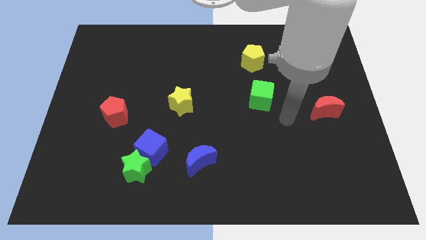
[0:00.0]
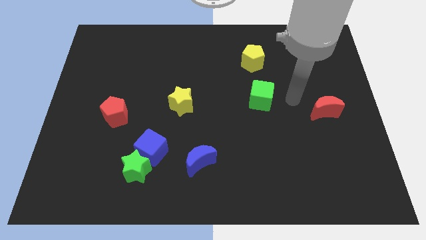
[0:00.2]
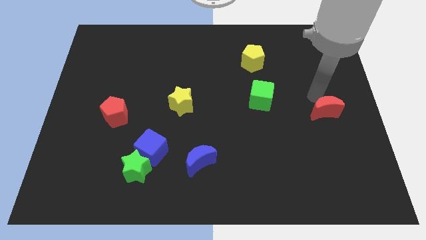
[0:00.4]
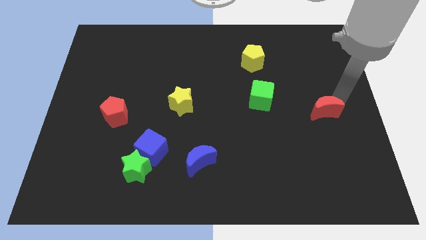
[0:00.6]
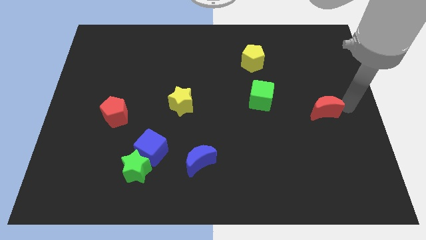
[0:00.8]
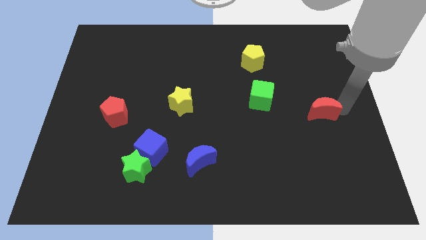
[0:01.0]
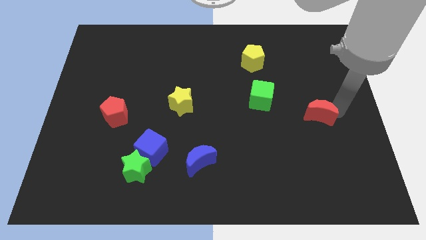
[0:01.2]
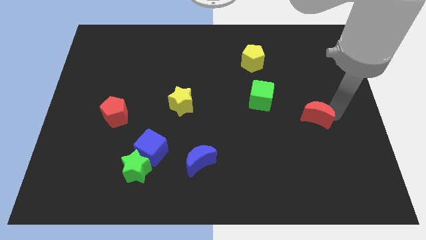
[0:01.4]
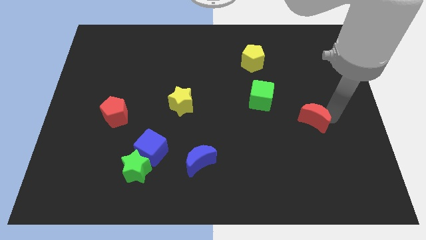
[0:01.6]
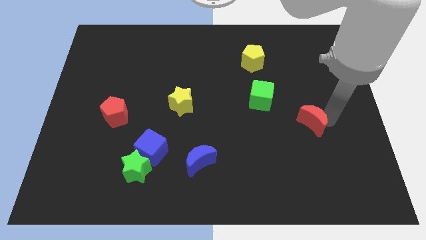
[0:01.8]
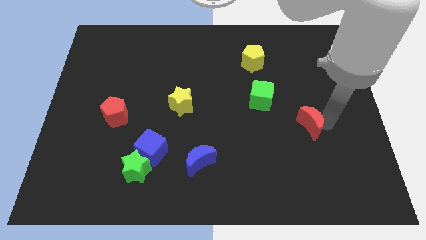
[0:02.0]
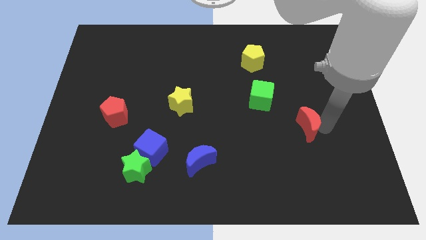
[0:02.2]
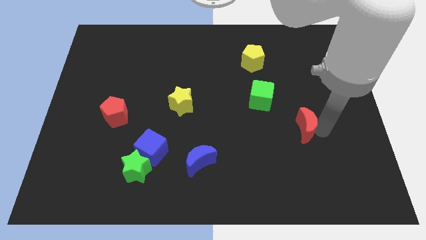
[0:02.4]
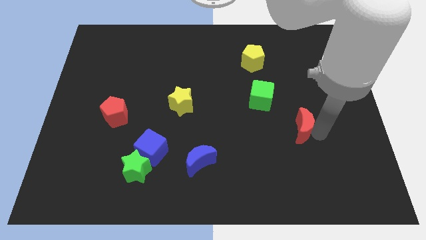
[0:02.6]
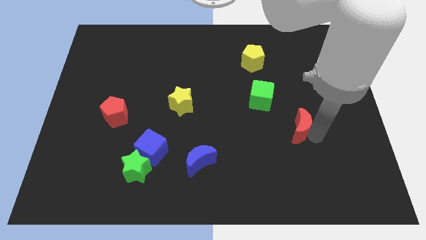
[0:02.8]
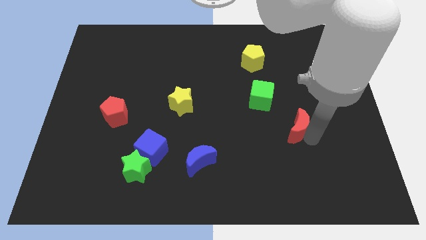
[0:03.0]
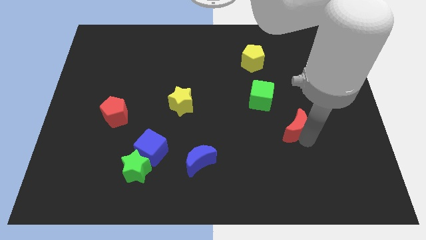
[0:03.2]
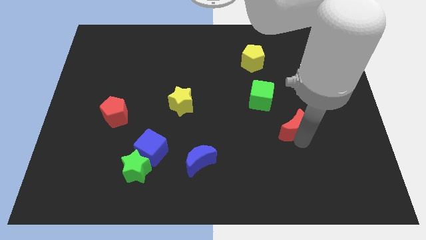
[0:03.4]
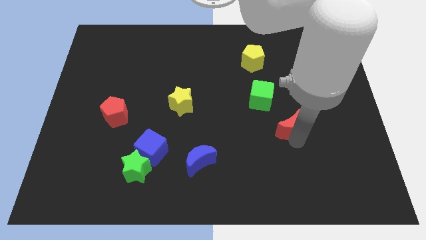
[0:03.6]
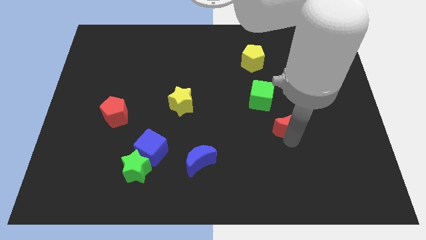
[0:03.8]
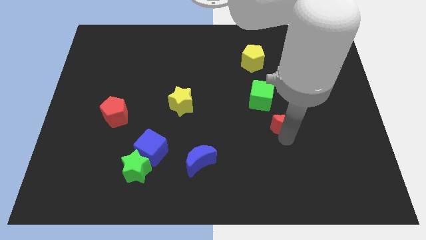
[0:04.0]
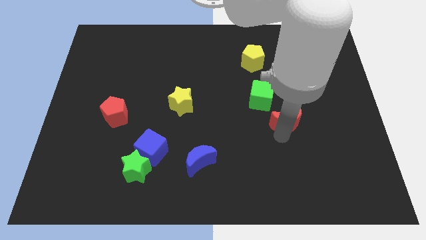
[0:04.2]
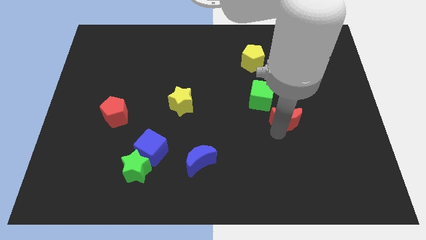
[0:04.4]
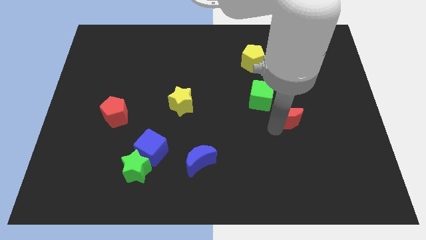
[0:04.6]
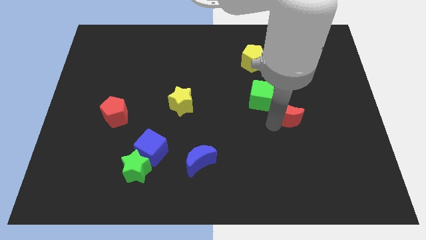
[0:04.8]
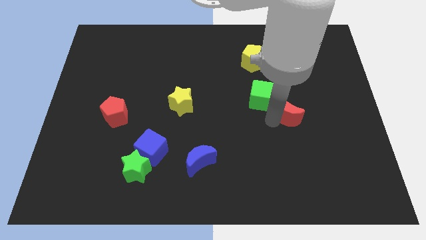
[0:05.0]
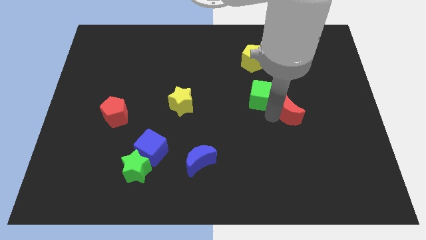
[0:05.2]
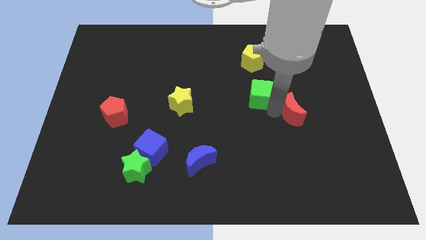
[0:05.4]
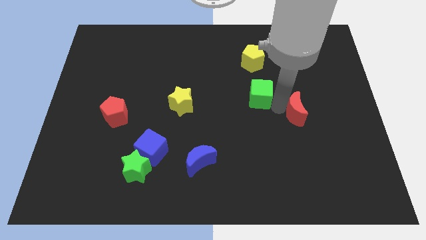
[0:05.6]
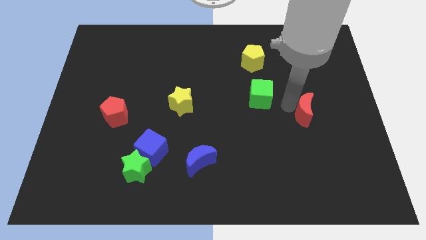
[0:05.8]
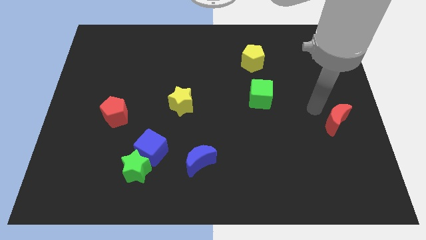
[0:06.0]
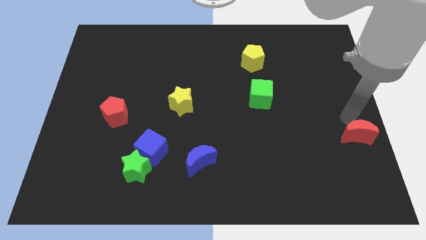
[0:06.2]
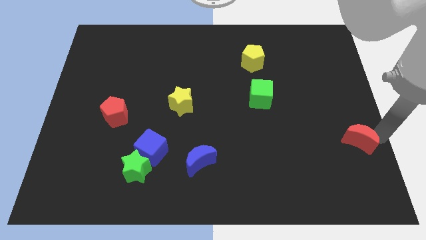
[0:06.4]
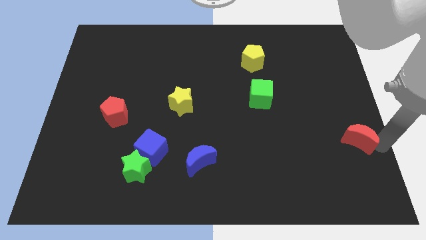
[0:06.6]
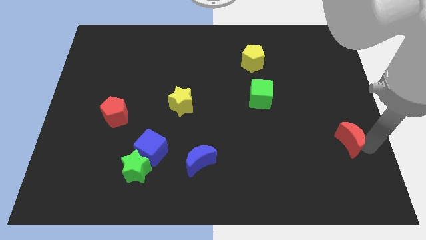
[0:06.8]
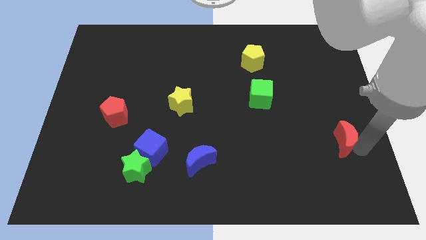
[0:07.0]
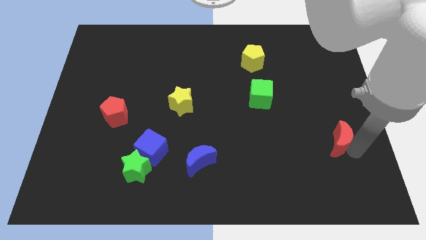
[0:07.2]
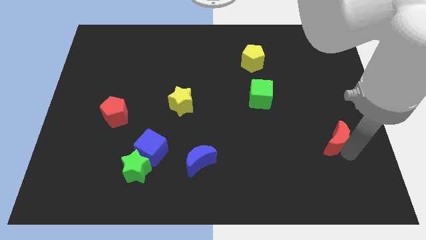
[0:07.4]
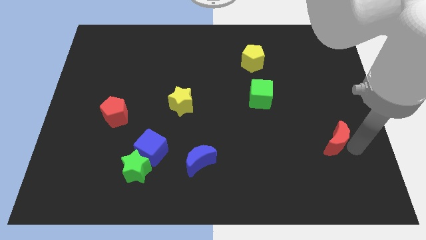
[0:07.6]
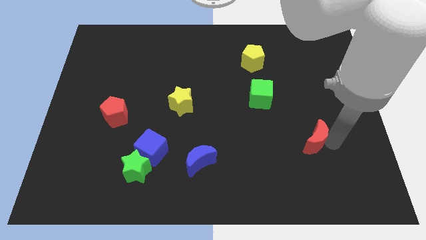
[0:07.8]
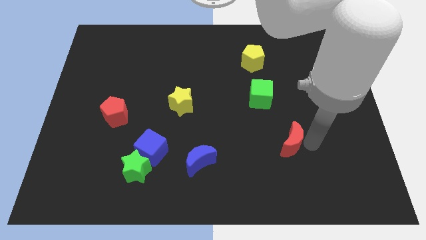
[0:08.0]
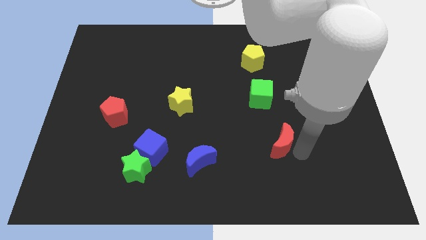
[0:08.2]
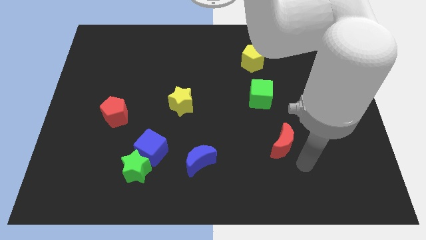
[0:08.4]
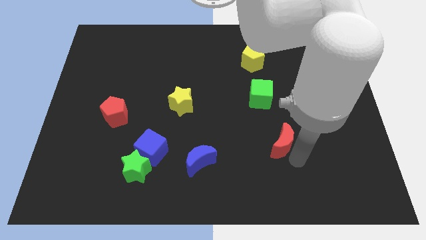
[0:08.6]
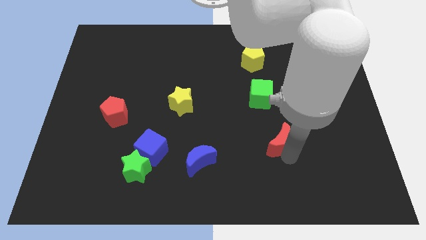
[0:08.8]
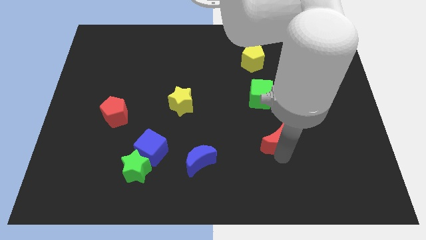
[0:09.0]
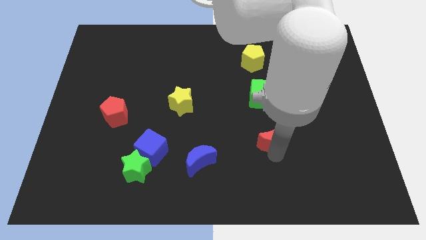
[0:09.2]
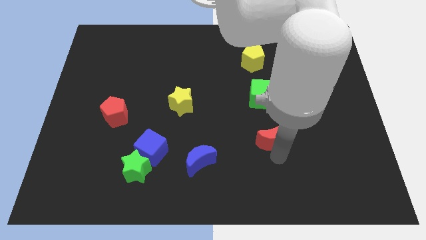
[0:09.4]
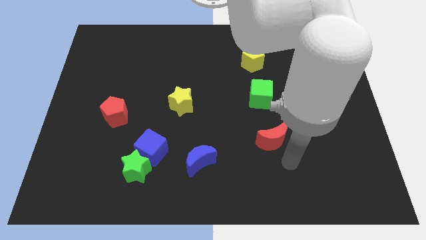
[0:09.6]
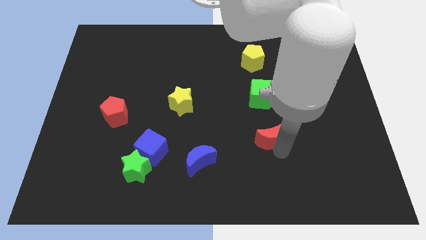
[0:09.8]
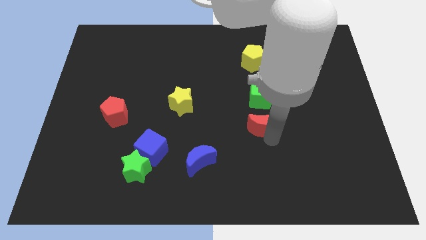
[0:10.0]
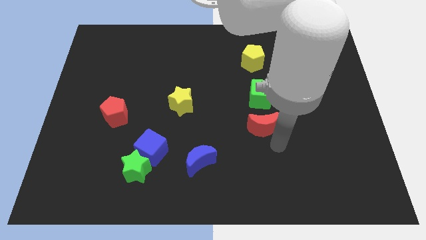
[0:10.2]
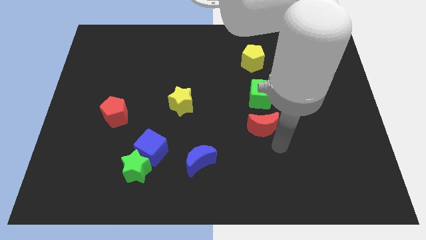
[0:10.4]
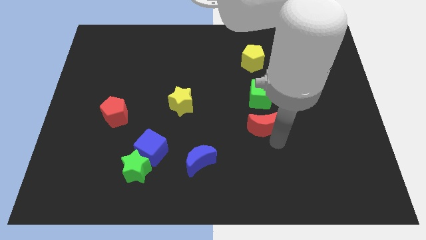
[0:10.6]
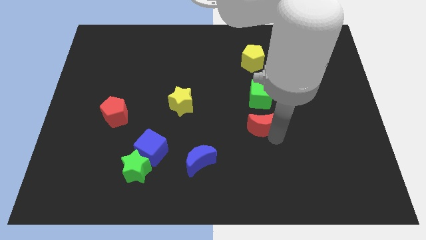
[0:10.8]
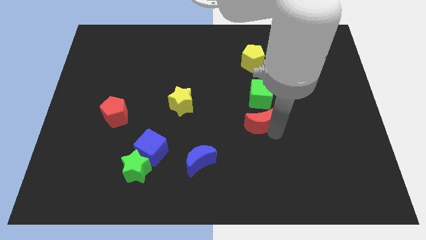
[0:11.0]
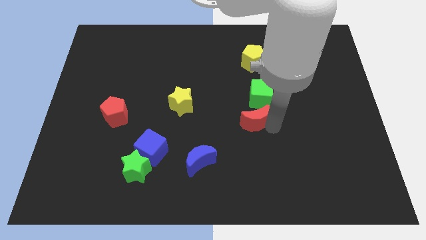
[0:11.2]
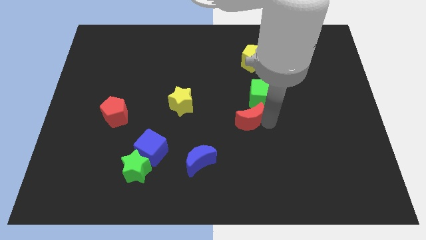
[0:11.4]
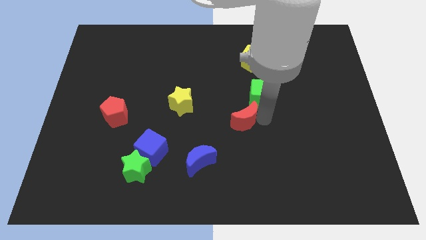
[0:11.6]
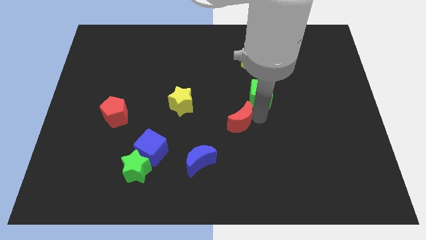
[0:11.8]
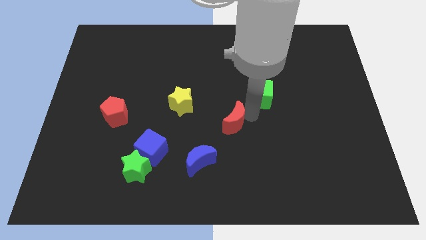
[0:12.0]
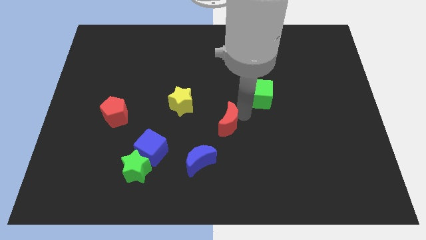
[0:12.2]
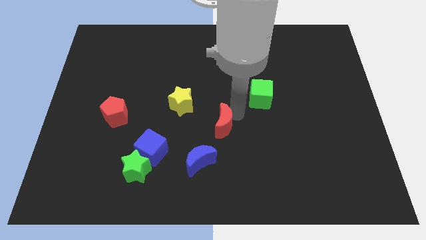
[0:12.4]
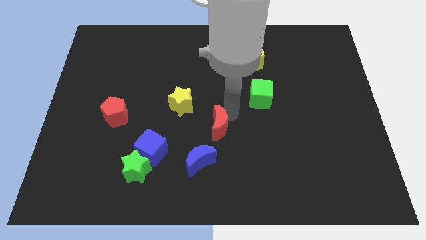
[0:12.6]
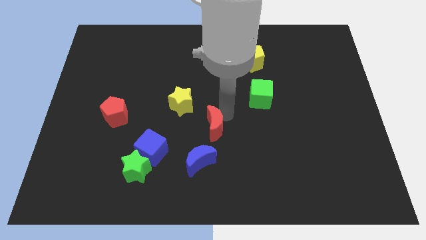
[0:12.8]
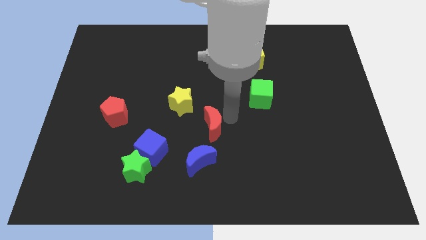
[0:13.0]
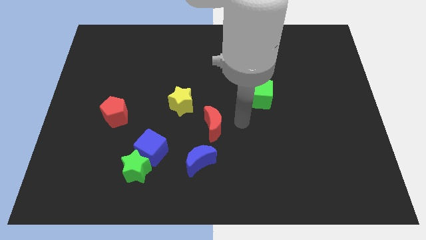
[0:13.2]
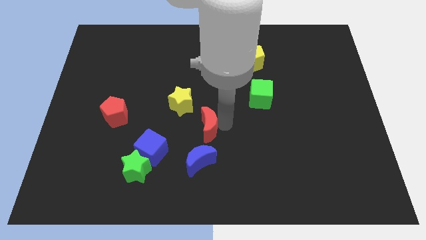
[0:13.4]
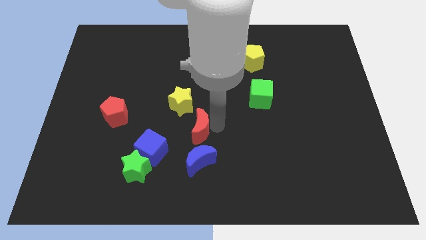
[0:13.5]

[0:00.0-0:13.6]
push the red moon to the top right side of the blue cube
